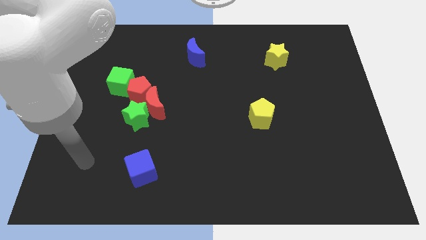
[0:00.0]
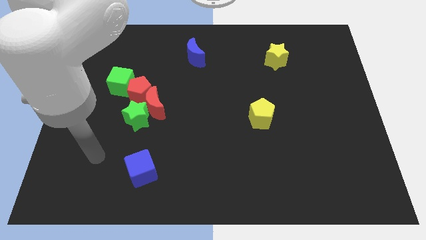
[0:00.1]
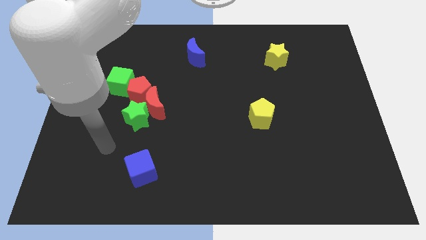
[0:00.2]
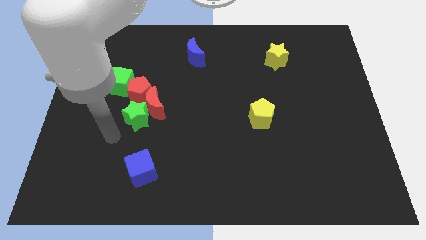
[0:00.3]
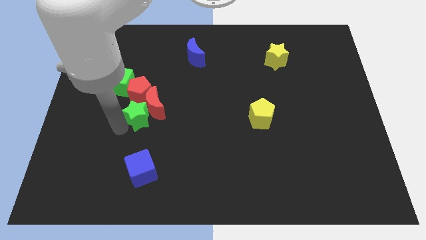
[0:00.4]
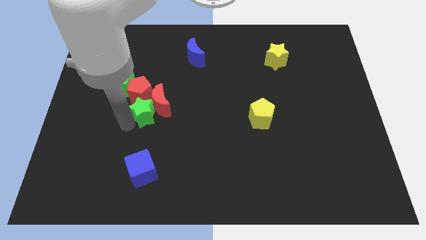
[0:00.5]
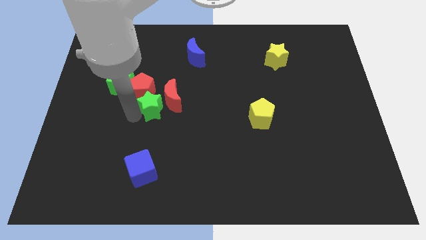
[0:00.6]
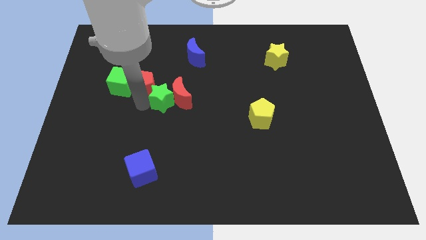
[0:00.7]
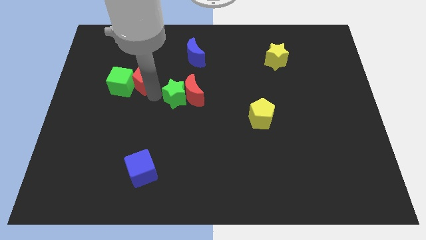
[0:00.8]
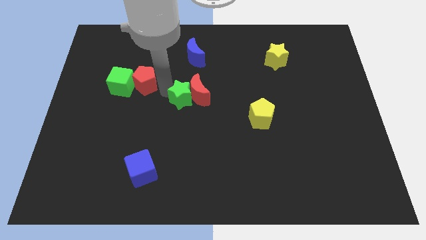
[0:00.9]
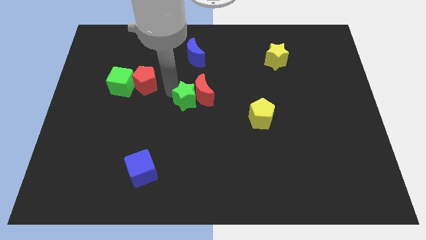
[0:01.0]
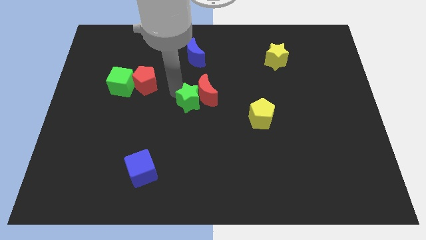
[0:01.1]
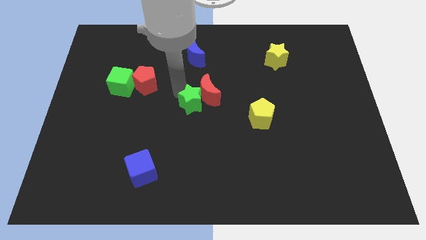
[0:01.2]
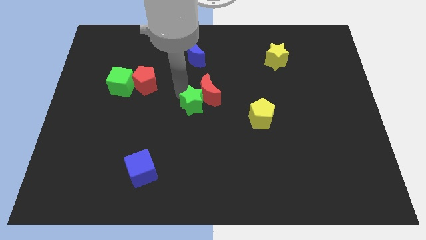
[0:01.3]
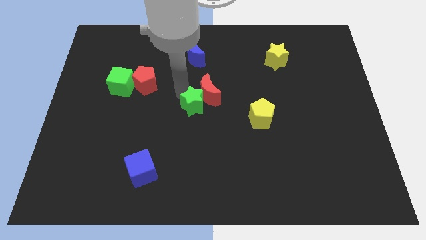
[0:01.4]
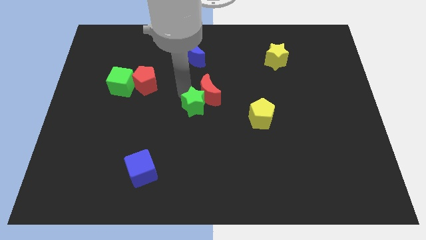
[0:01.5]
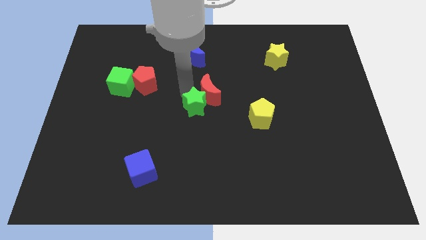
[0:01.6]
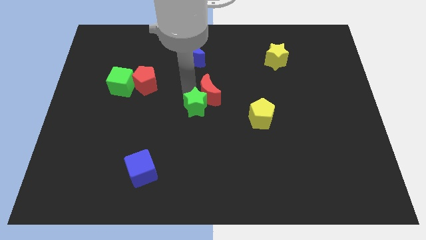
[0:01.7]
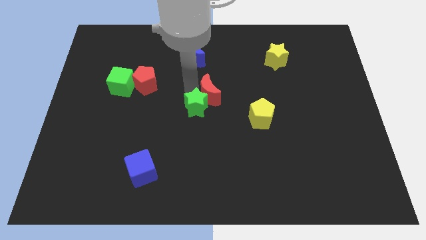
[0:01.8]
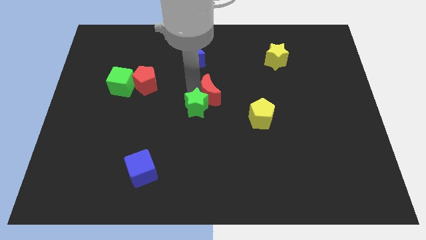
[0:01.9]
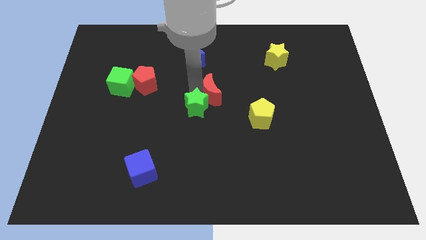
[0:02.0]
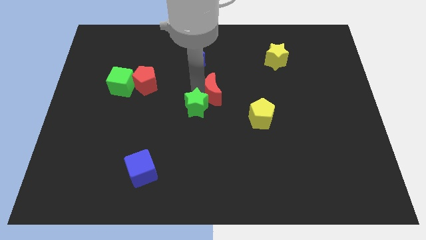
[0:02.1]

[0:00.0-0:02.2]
pull the red moon apart from the green star and red pentagon

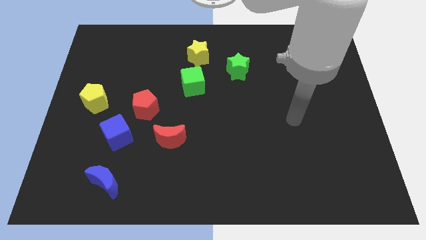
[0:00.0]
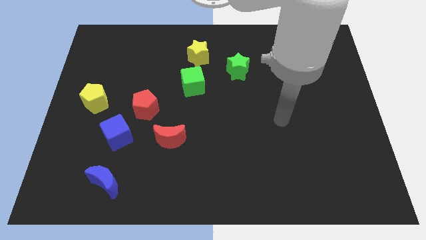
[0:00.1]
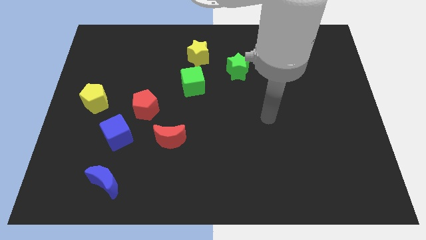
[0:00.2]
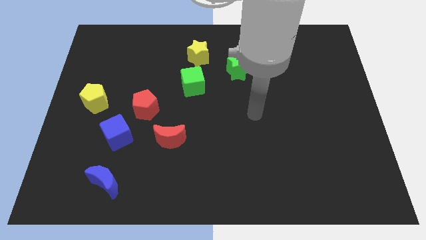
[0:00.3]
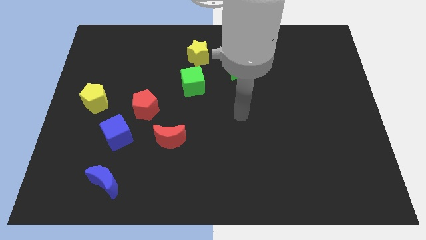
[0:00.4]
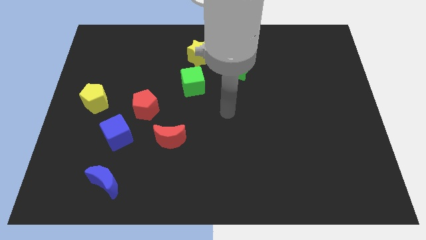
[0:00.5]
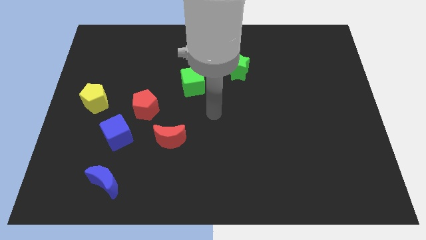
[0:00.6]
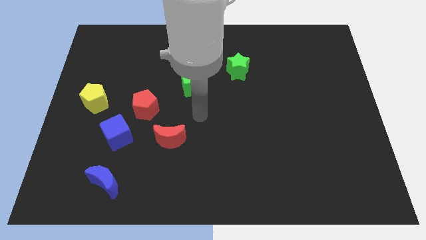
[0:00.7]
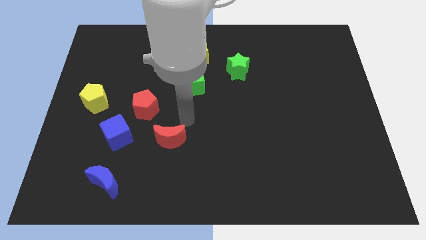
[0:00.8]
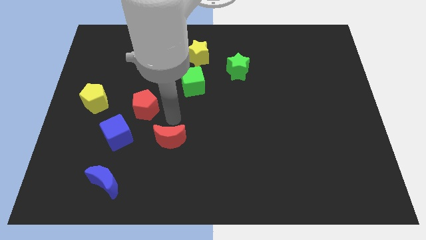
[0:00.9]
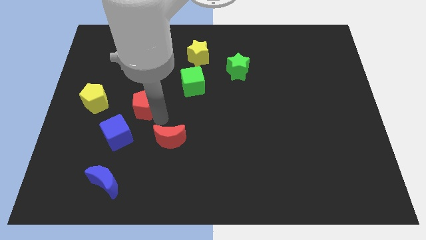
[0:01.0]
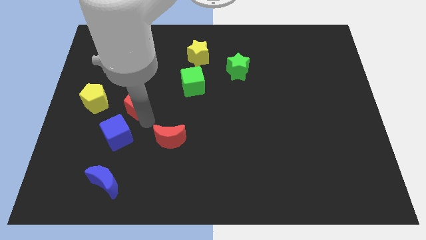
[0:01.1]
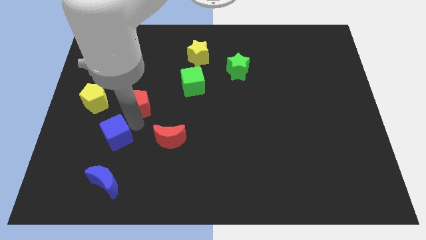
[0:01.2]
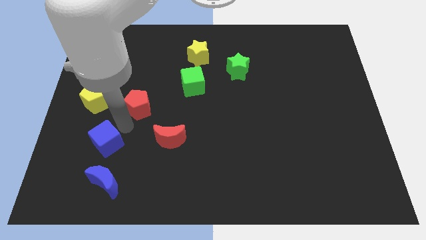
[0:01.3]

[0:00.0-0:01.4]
separate the red pentagon from the blue cube

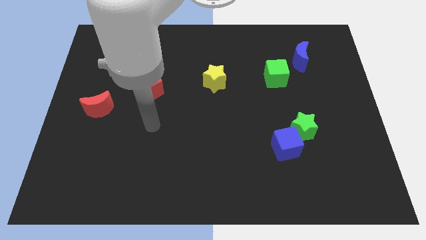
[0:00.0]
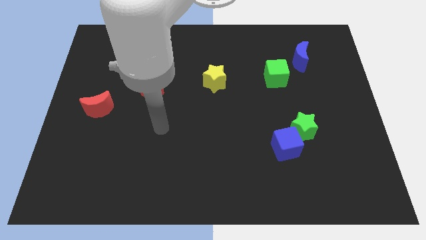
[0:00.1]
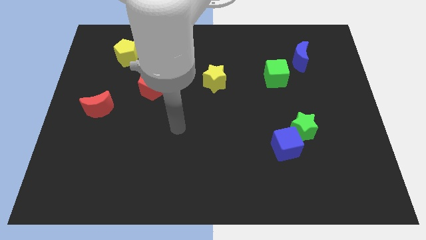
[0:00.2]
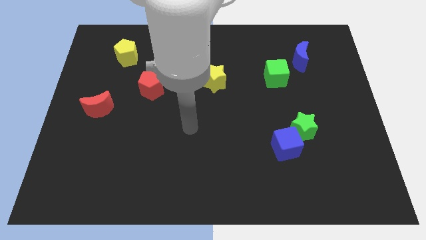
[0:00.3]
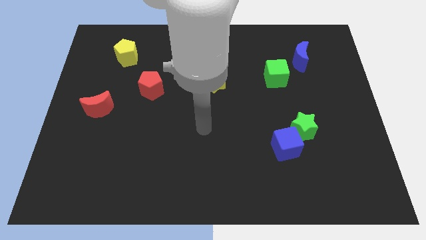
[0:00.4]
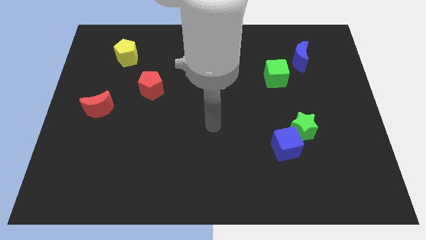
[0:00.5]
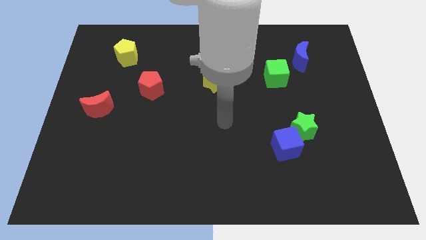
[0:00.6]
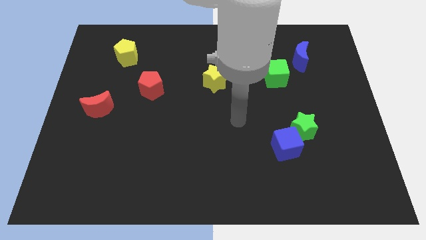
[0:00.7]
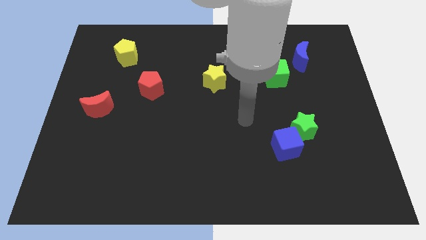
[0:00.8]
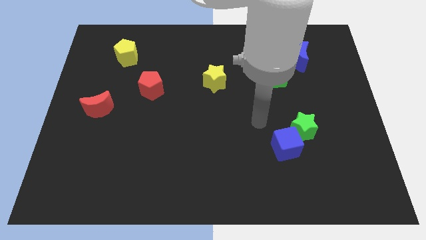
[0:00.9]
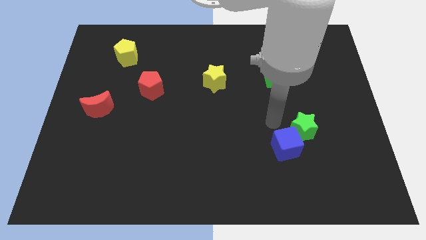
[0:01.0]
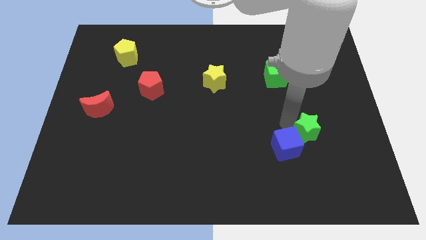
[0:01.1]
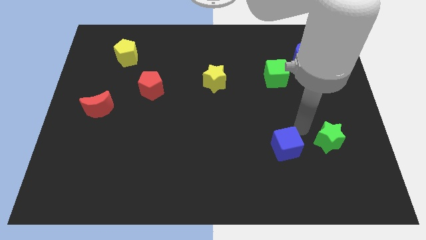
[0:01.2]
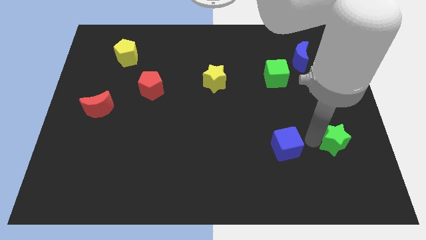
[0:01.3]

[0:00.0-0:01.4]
move the blue cube away from the green star

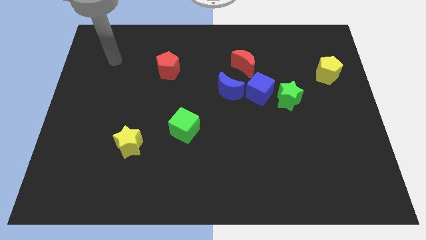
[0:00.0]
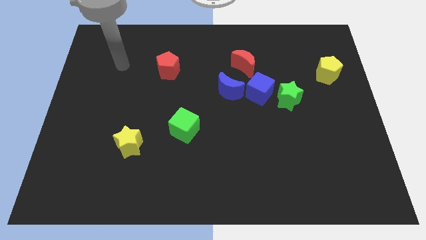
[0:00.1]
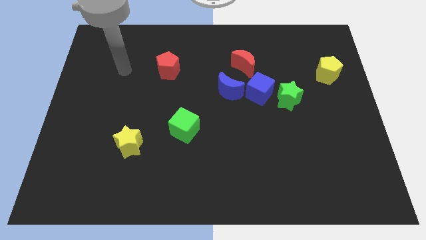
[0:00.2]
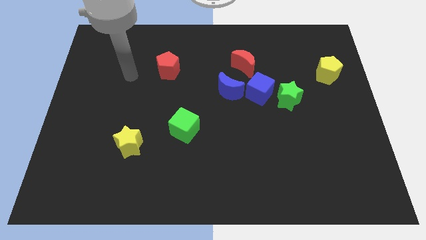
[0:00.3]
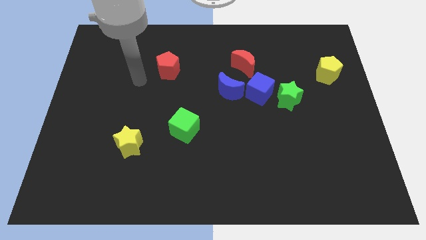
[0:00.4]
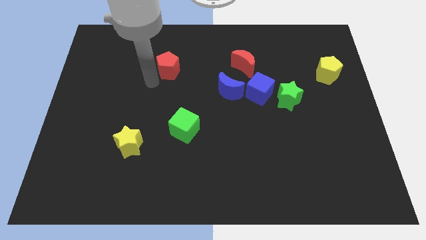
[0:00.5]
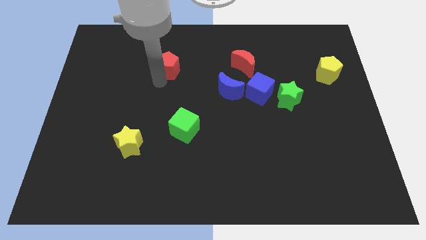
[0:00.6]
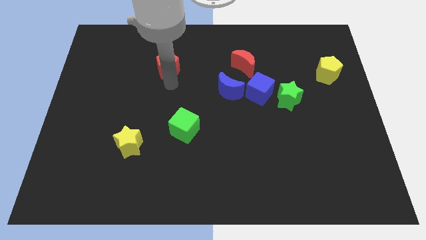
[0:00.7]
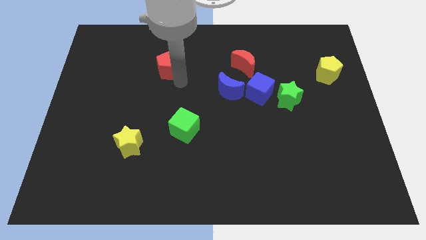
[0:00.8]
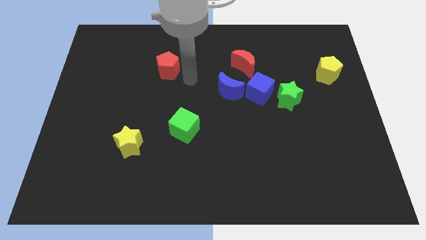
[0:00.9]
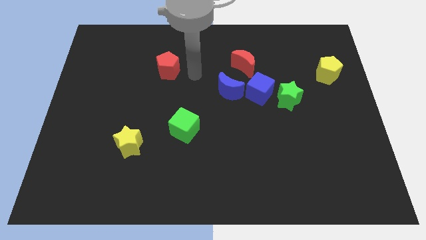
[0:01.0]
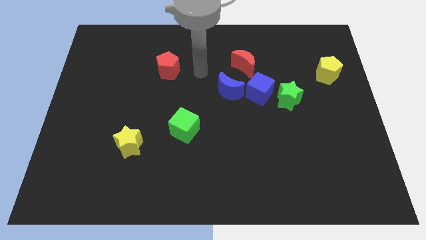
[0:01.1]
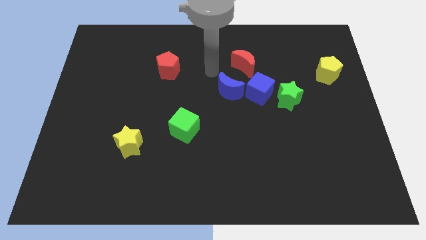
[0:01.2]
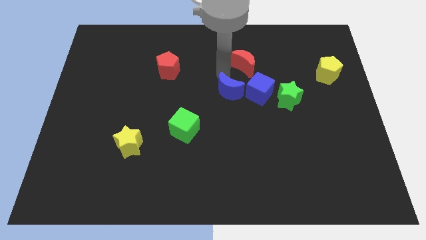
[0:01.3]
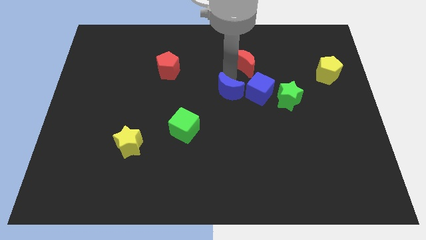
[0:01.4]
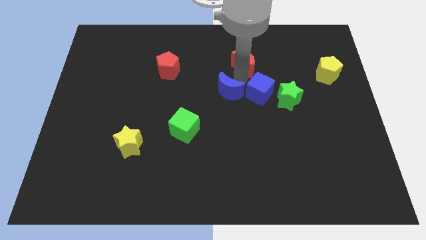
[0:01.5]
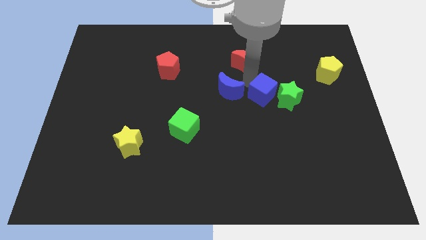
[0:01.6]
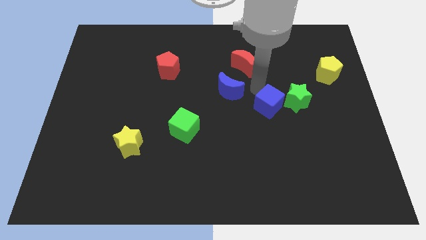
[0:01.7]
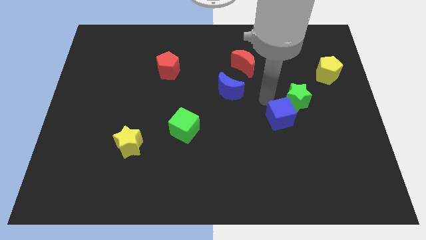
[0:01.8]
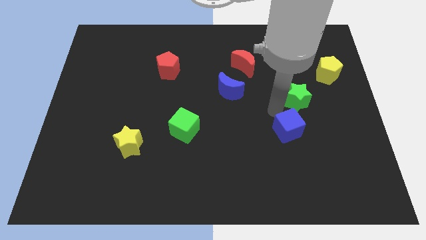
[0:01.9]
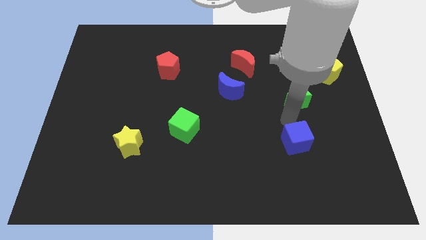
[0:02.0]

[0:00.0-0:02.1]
separate the green star from the blue cube

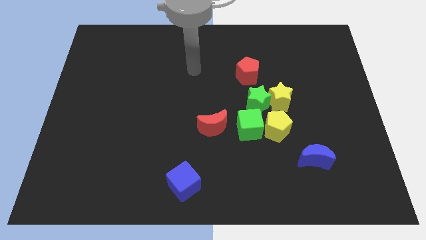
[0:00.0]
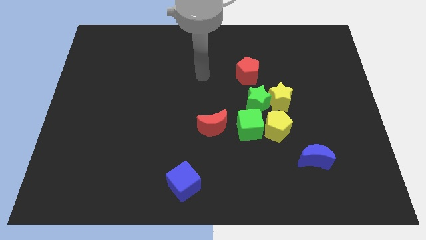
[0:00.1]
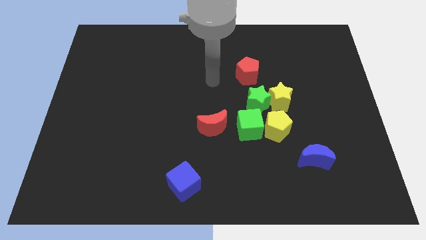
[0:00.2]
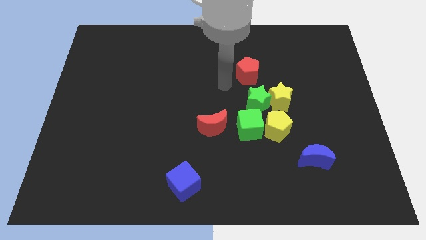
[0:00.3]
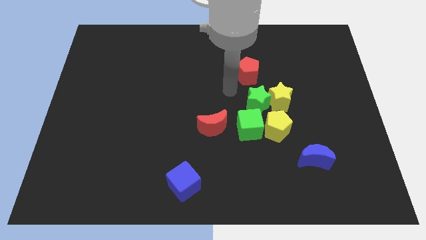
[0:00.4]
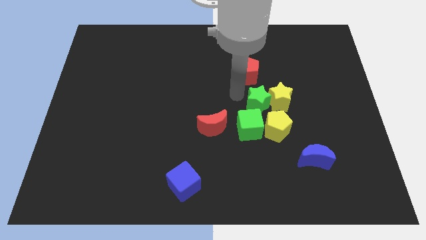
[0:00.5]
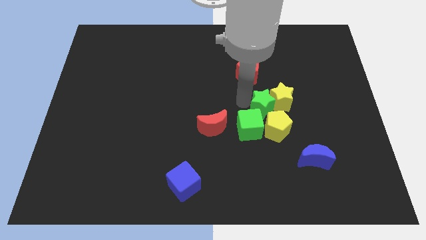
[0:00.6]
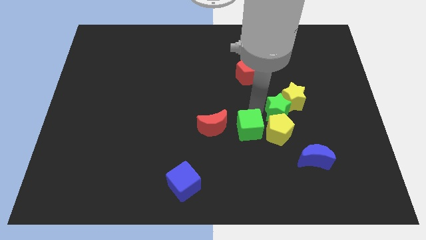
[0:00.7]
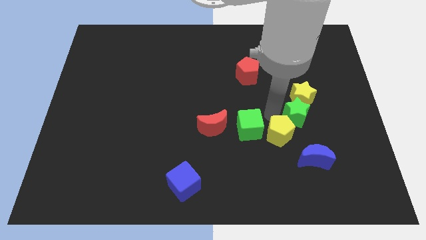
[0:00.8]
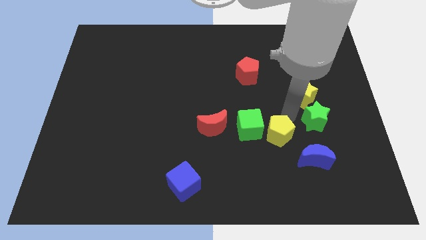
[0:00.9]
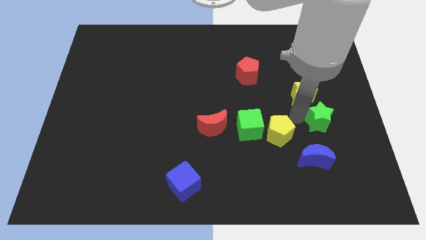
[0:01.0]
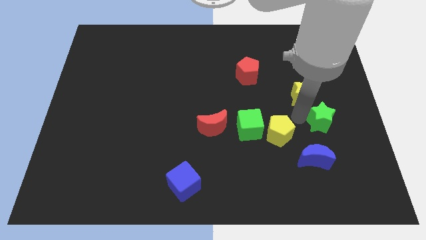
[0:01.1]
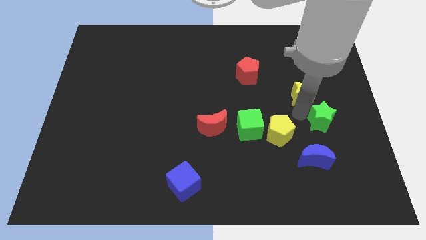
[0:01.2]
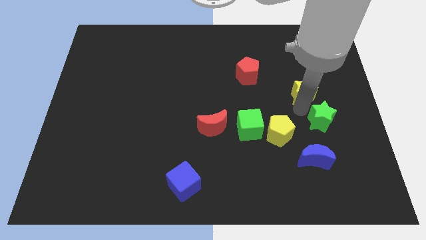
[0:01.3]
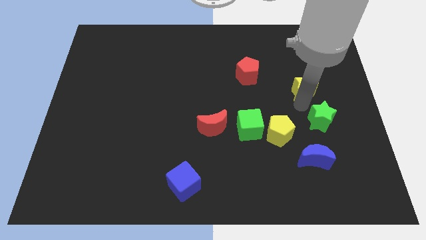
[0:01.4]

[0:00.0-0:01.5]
move the yellow star away from the green star and yellow pentagon

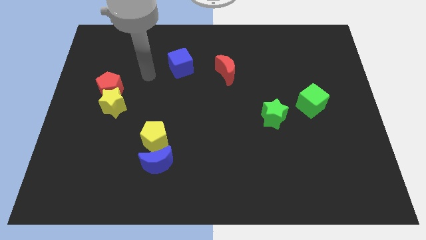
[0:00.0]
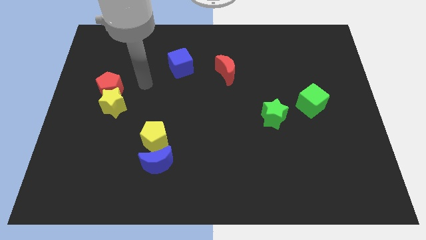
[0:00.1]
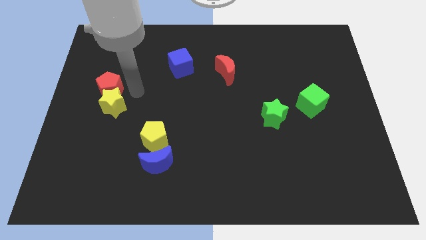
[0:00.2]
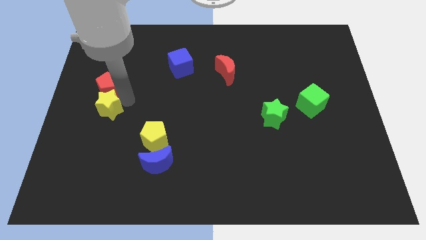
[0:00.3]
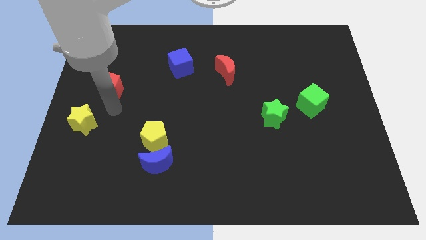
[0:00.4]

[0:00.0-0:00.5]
pull the red pentagon apart from the yellow star

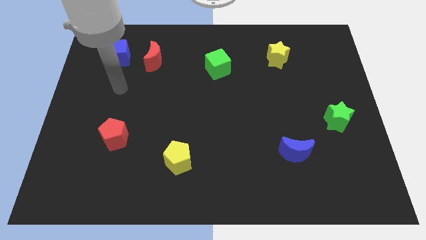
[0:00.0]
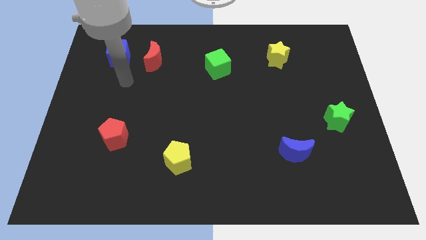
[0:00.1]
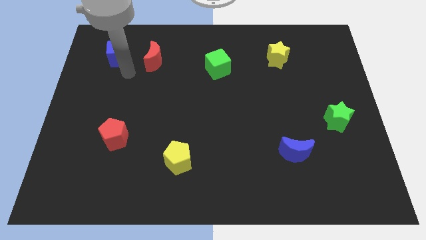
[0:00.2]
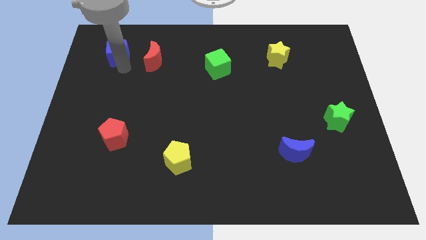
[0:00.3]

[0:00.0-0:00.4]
move the red moon away from the blue cube
